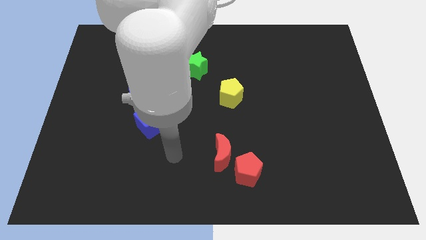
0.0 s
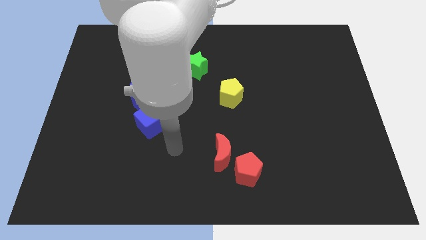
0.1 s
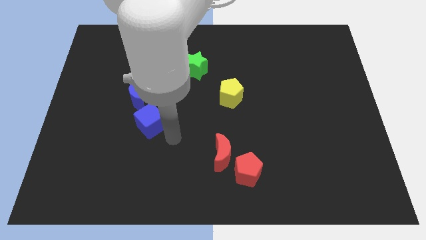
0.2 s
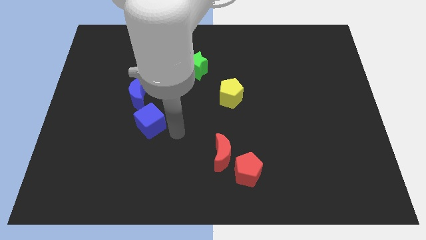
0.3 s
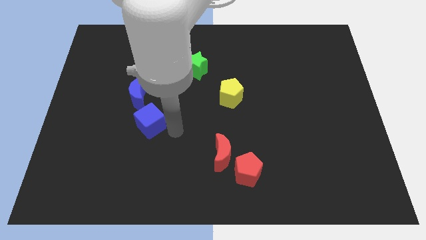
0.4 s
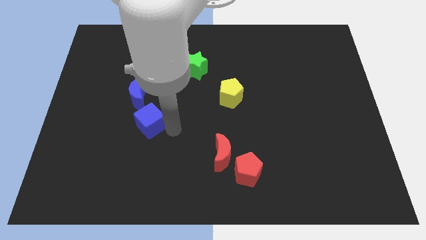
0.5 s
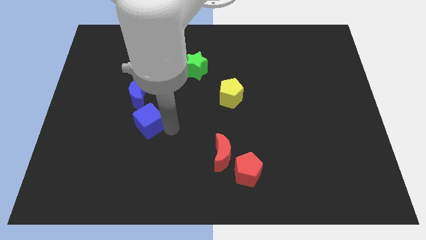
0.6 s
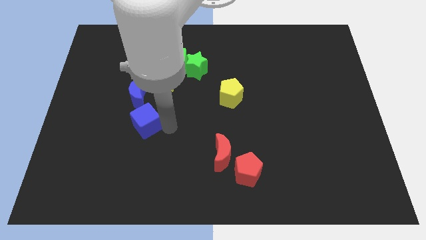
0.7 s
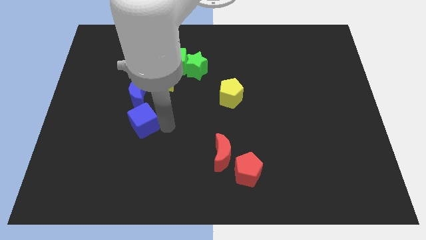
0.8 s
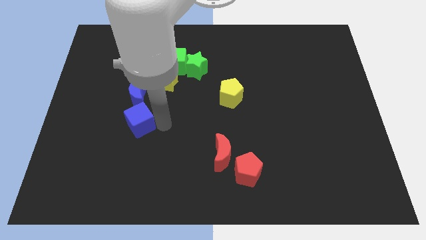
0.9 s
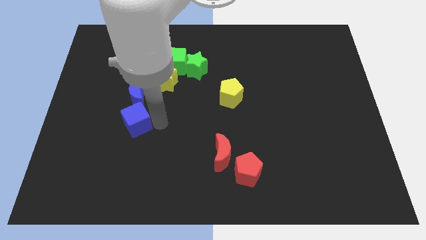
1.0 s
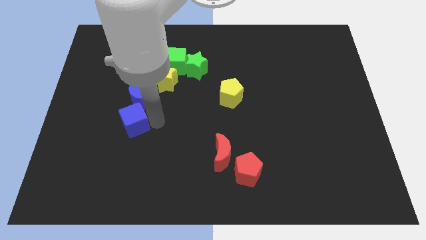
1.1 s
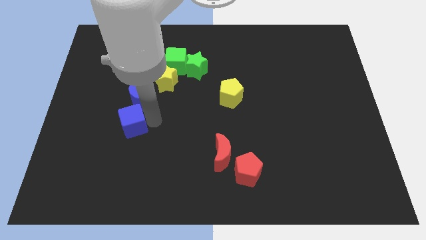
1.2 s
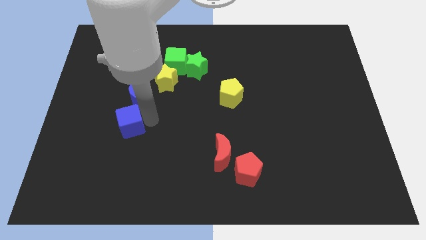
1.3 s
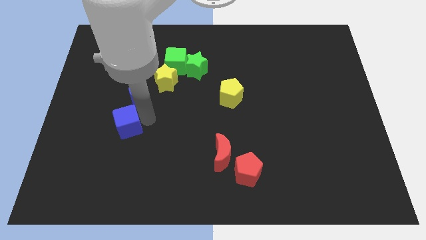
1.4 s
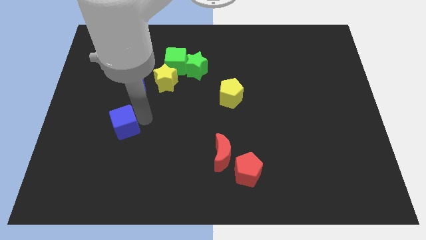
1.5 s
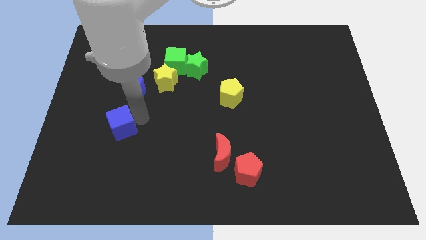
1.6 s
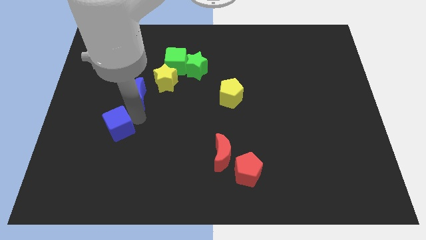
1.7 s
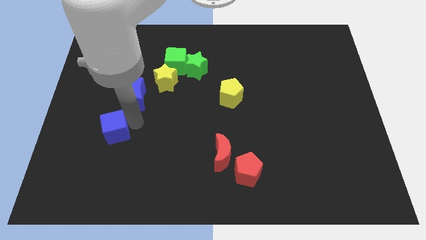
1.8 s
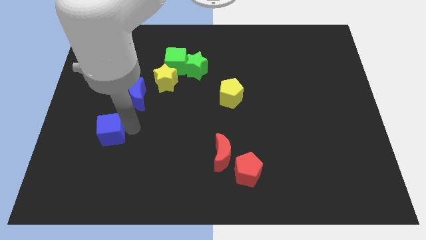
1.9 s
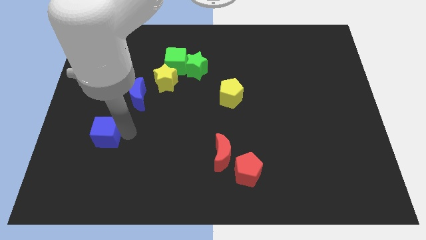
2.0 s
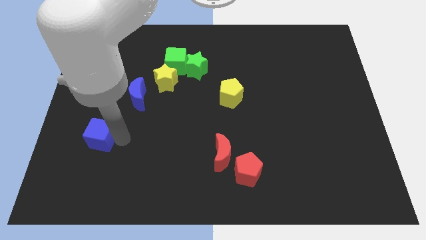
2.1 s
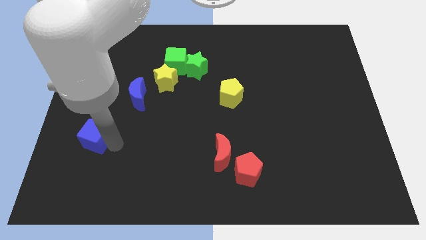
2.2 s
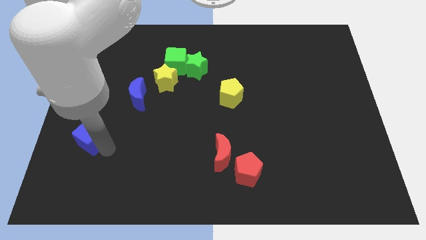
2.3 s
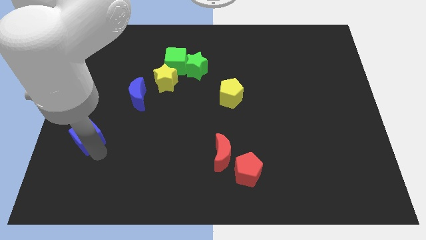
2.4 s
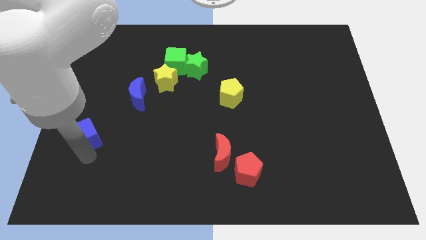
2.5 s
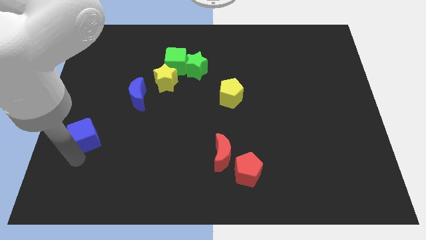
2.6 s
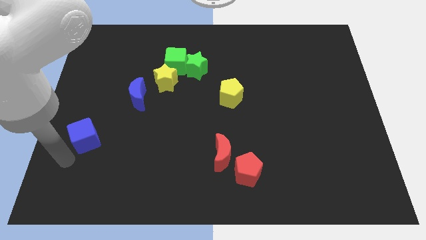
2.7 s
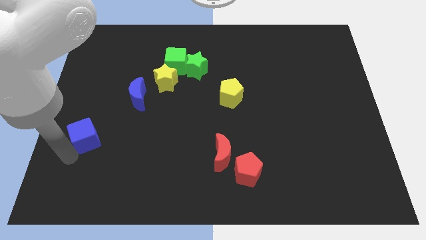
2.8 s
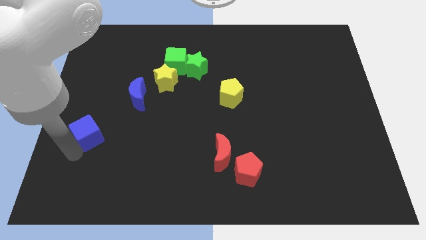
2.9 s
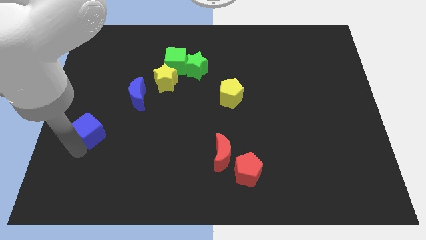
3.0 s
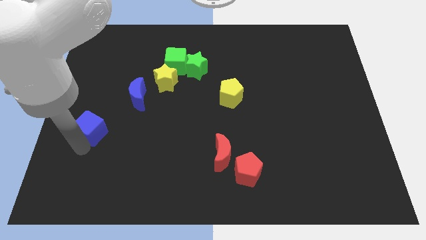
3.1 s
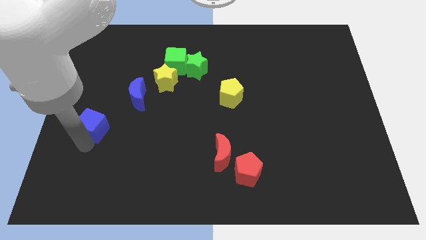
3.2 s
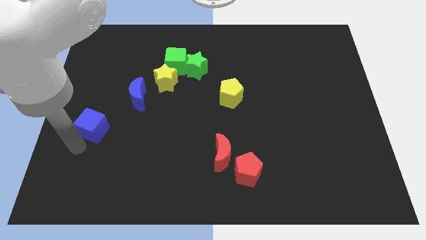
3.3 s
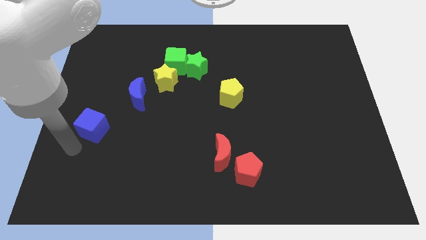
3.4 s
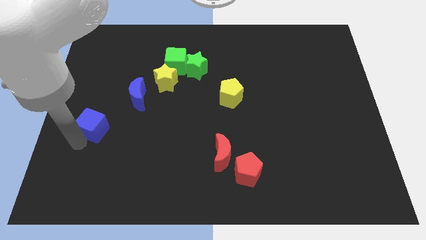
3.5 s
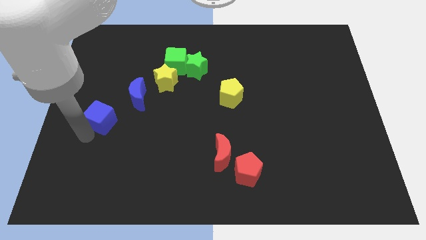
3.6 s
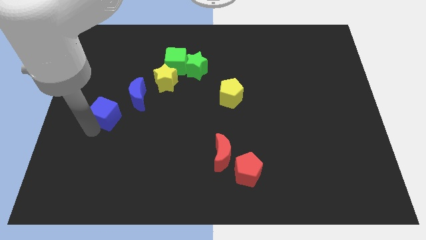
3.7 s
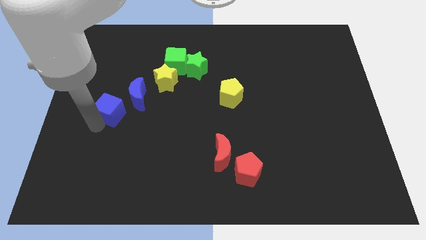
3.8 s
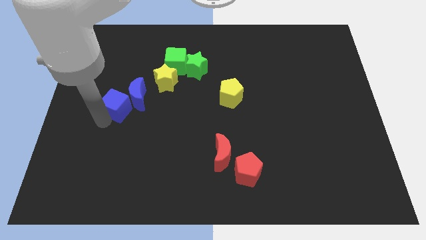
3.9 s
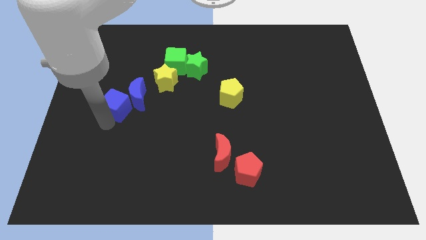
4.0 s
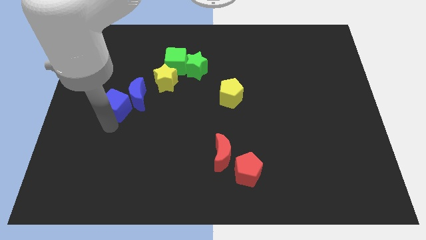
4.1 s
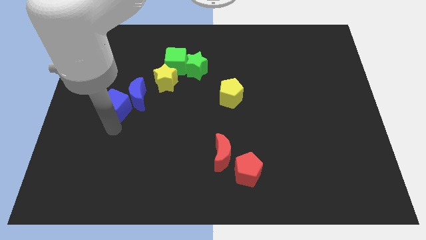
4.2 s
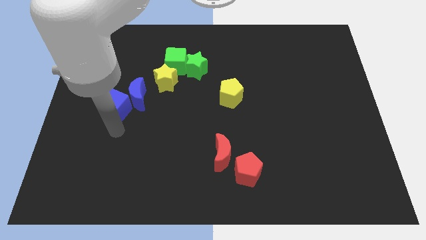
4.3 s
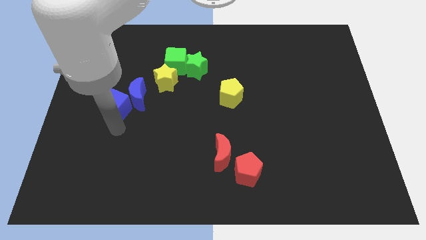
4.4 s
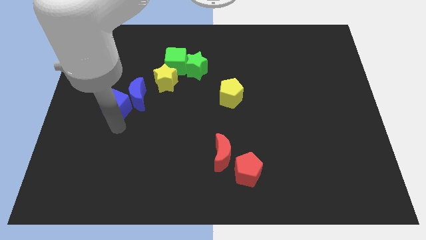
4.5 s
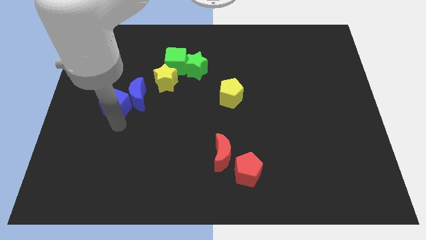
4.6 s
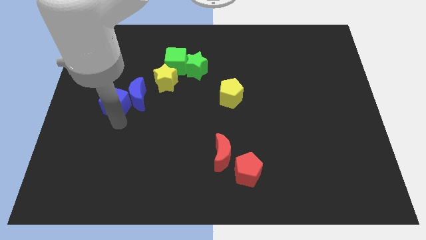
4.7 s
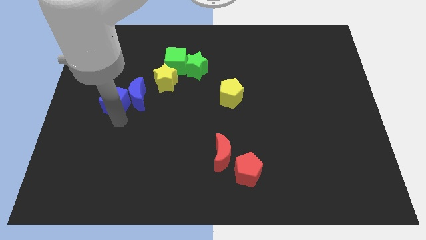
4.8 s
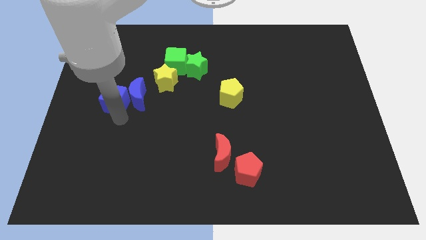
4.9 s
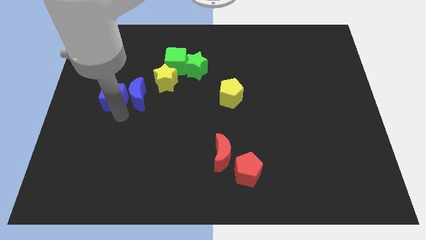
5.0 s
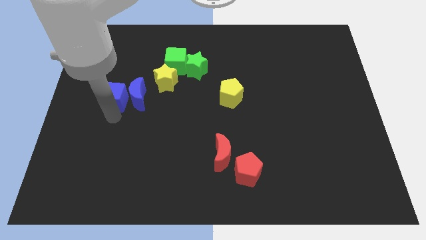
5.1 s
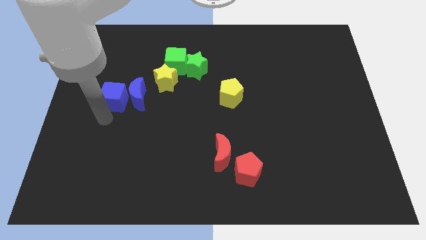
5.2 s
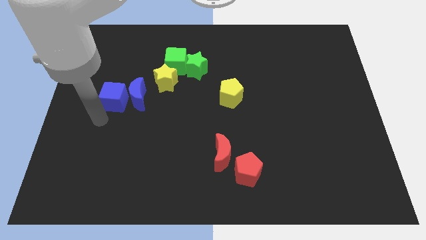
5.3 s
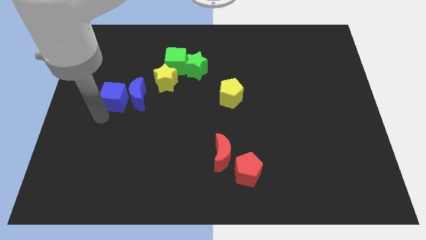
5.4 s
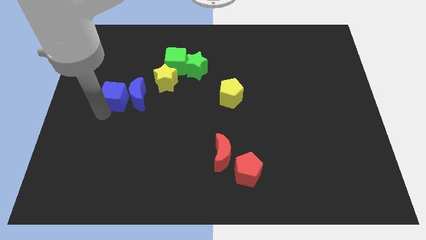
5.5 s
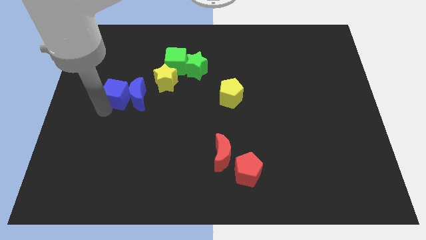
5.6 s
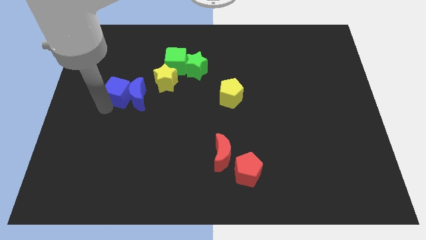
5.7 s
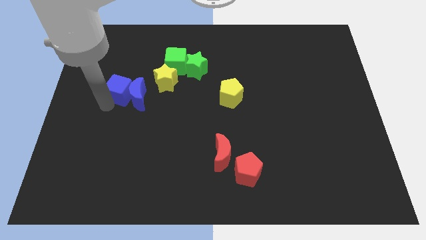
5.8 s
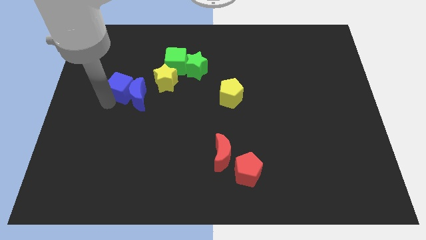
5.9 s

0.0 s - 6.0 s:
push the blue cube slightly upwards

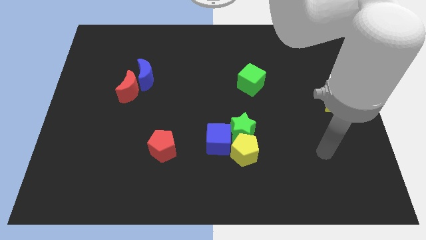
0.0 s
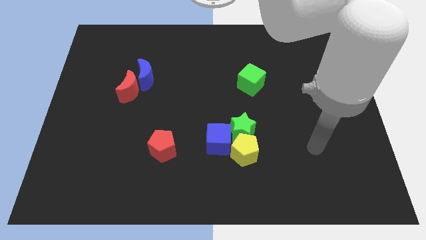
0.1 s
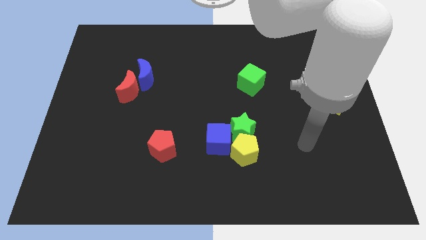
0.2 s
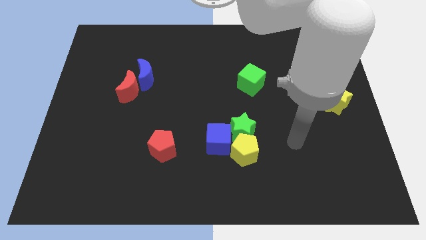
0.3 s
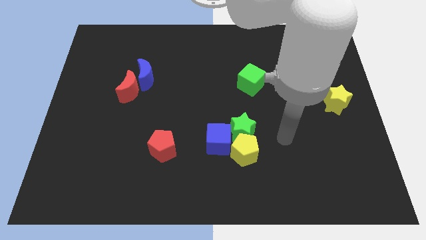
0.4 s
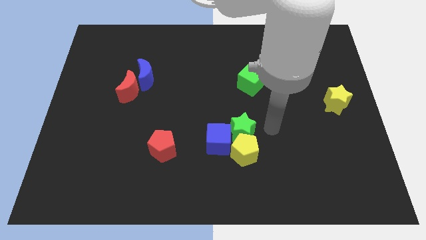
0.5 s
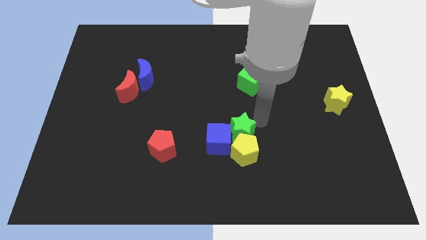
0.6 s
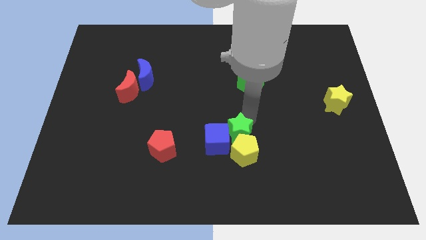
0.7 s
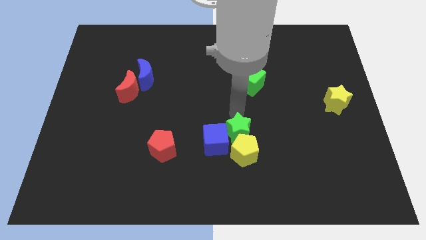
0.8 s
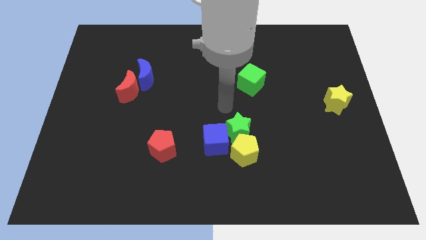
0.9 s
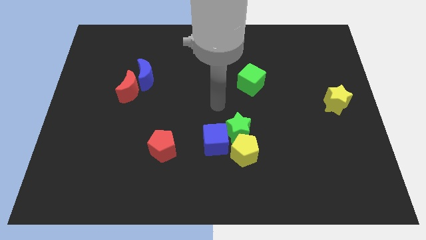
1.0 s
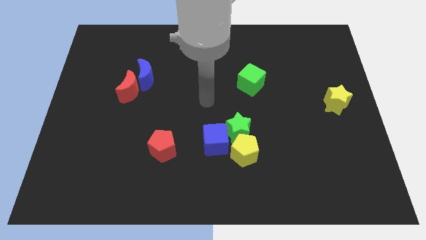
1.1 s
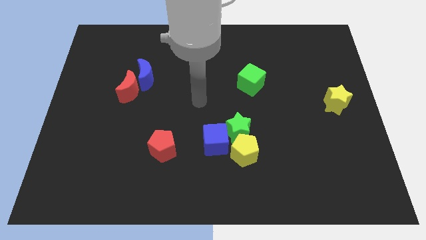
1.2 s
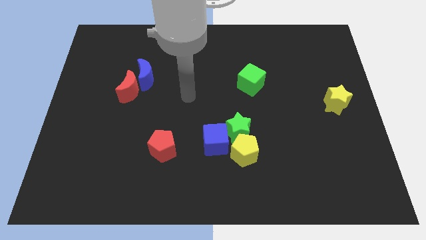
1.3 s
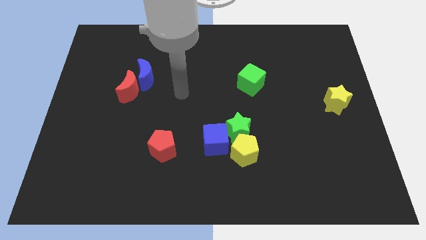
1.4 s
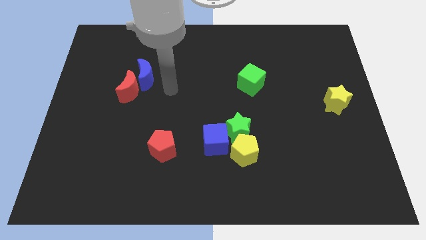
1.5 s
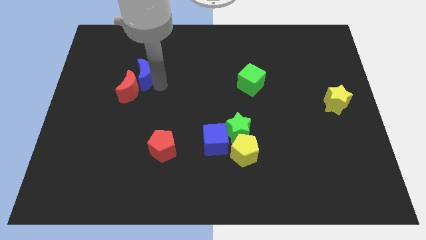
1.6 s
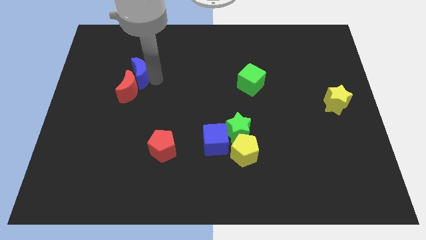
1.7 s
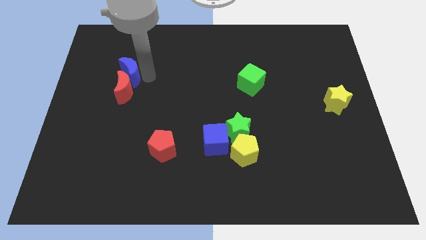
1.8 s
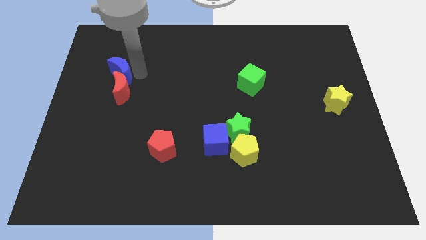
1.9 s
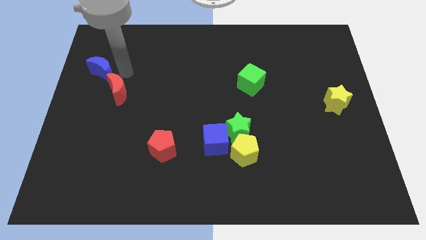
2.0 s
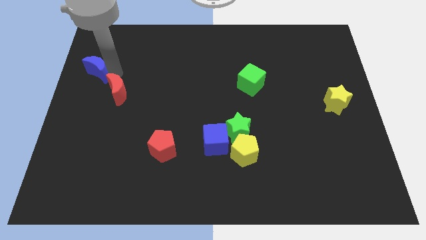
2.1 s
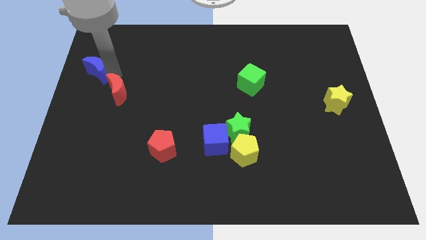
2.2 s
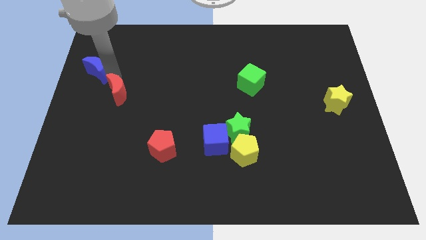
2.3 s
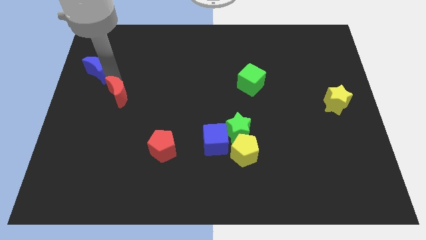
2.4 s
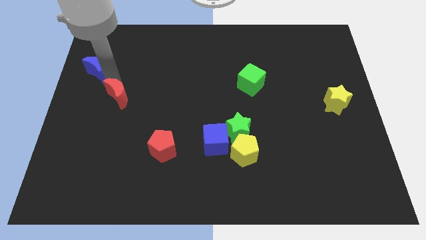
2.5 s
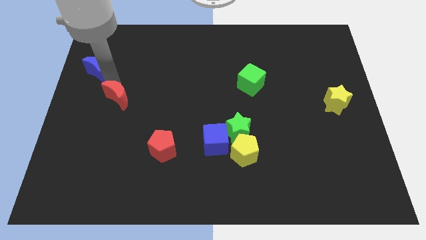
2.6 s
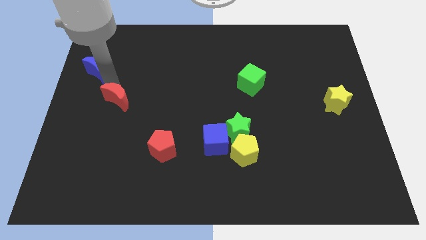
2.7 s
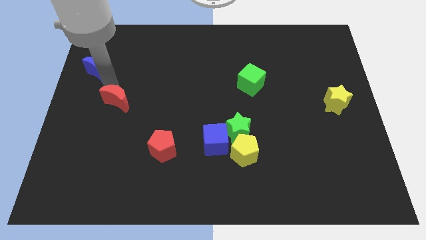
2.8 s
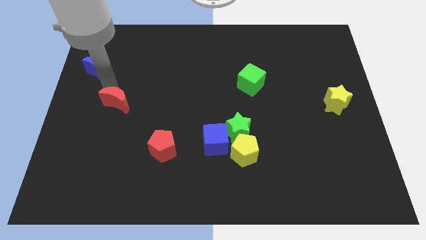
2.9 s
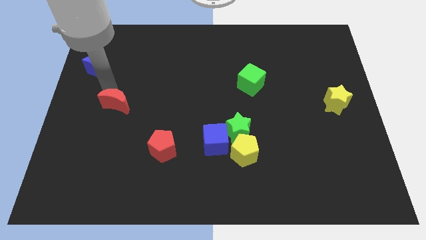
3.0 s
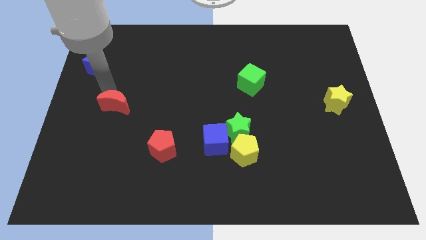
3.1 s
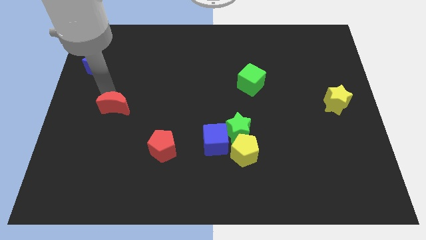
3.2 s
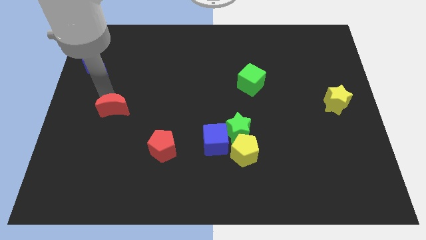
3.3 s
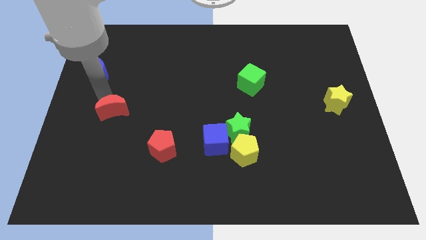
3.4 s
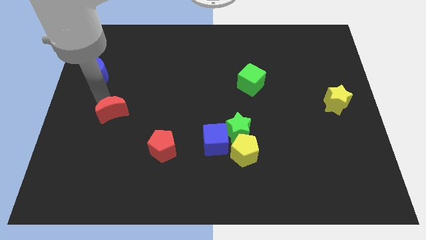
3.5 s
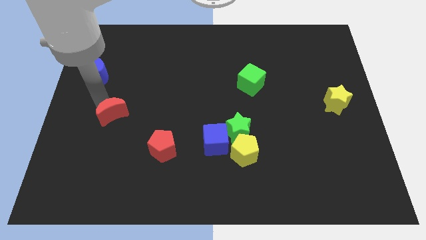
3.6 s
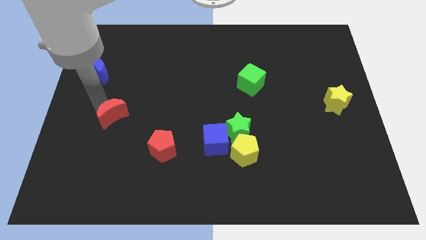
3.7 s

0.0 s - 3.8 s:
slightly move the red moon downwards
